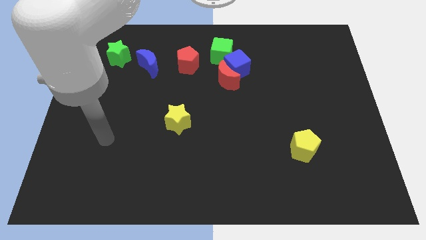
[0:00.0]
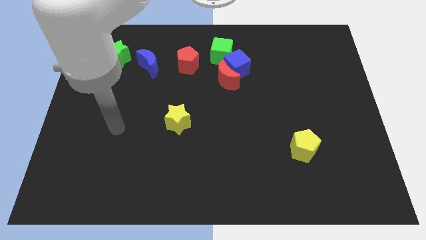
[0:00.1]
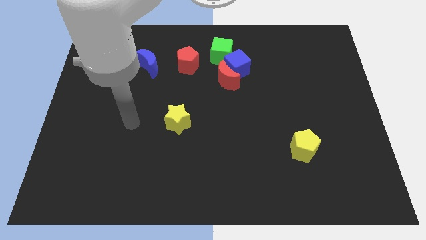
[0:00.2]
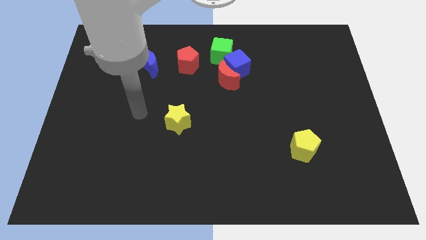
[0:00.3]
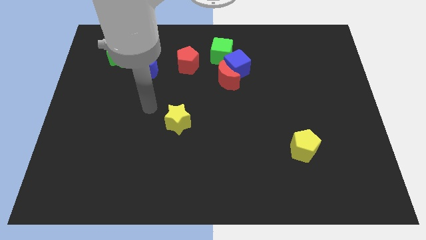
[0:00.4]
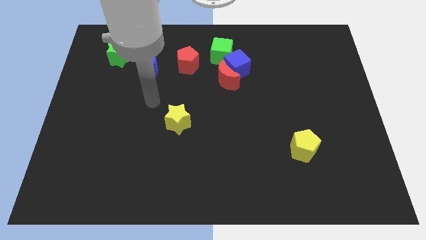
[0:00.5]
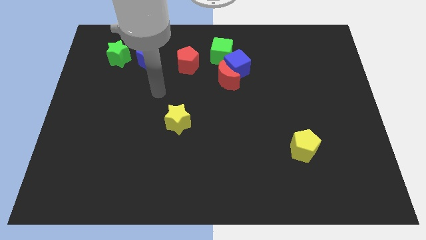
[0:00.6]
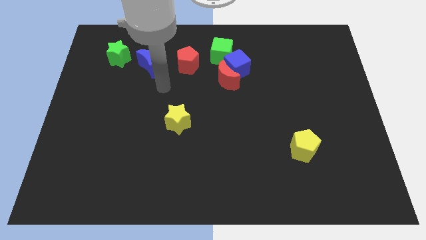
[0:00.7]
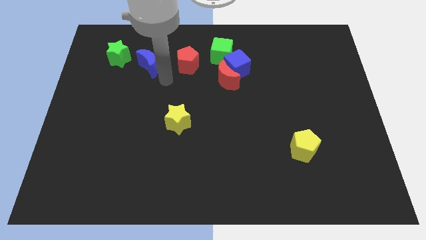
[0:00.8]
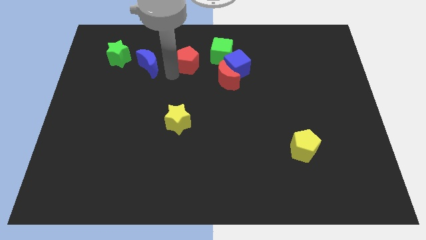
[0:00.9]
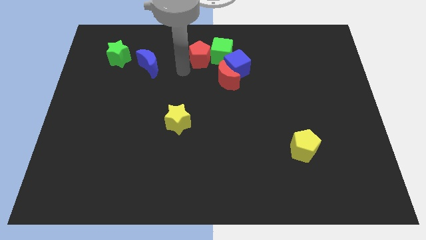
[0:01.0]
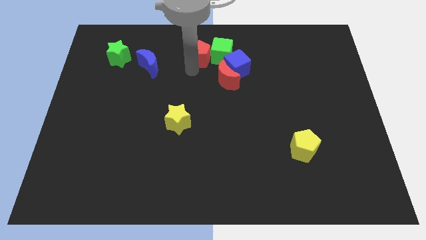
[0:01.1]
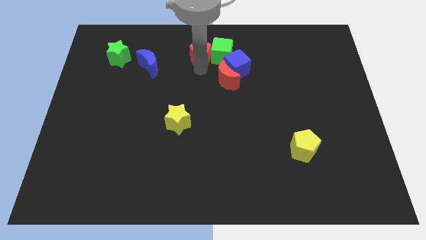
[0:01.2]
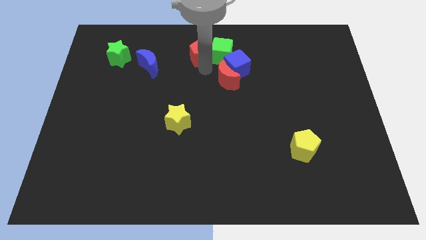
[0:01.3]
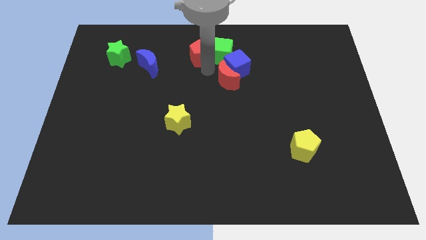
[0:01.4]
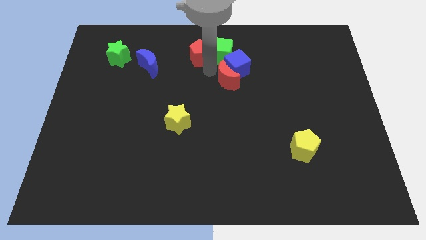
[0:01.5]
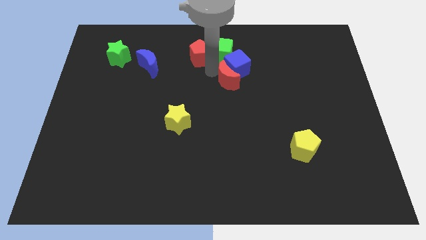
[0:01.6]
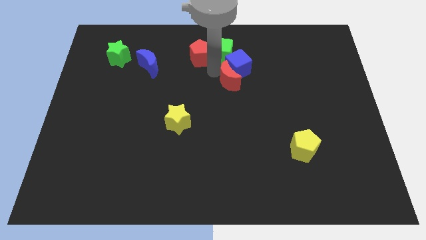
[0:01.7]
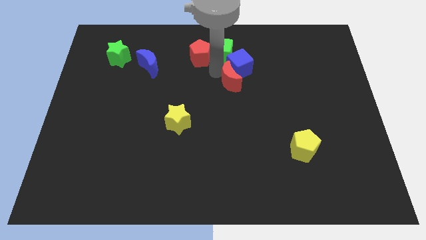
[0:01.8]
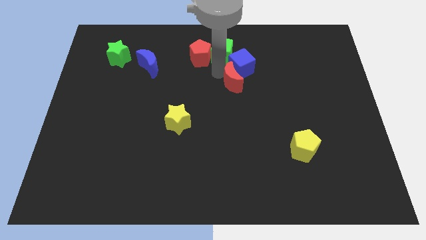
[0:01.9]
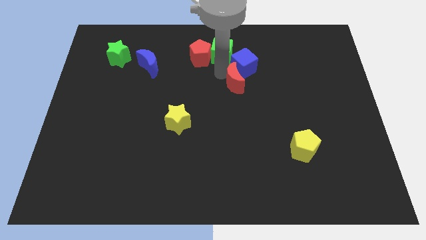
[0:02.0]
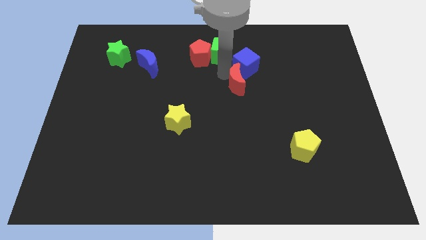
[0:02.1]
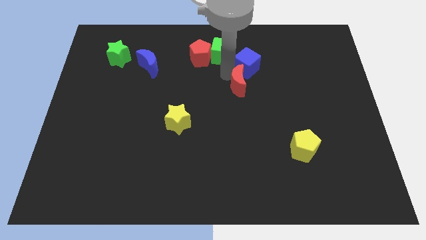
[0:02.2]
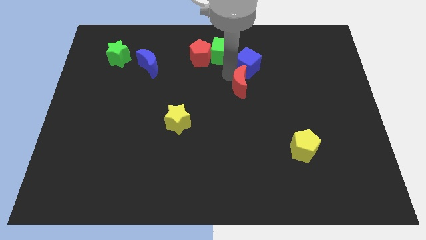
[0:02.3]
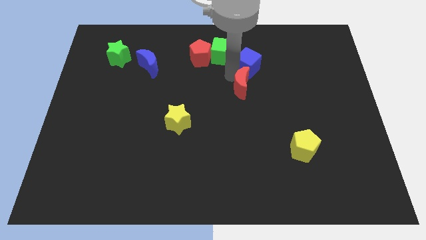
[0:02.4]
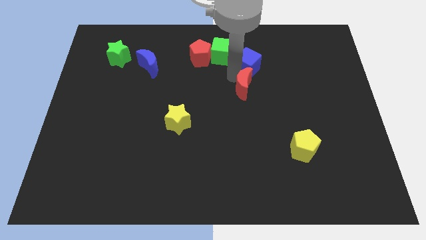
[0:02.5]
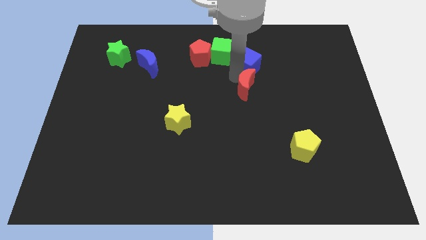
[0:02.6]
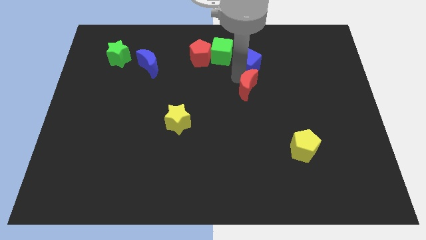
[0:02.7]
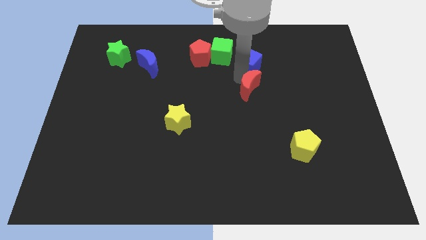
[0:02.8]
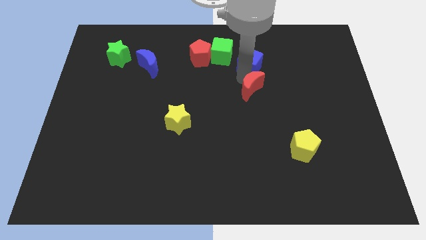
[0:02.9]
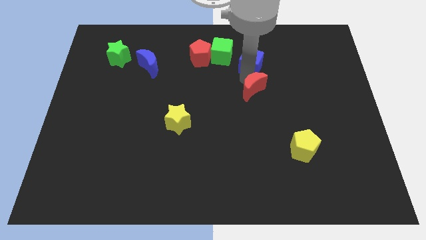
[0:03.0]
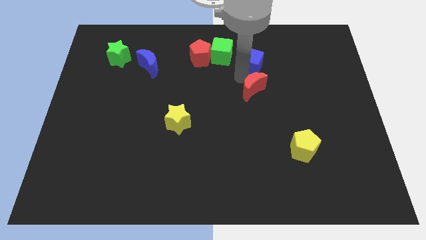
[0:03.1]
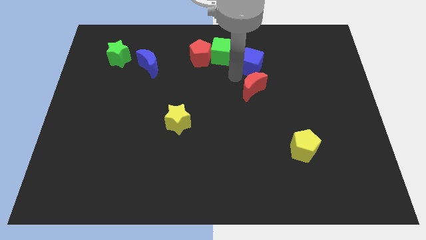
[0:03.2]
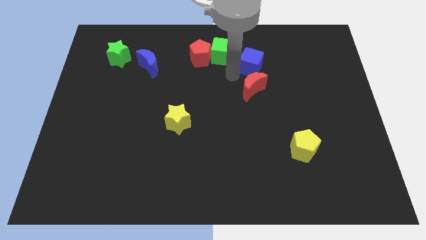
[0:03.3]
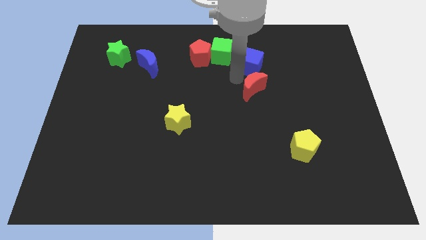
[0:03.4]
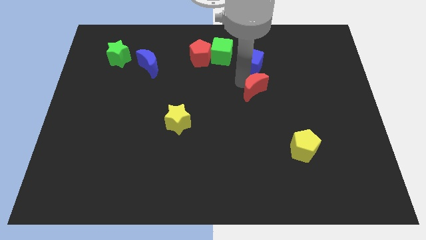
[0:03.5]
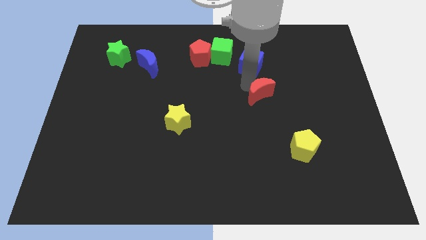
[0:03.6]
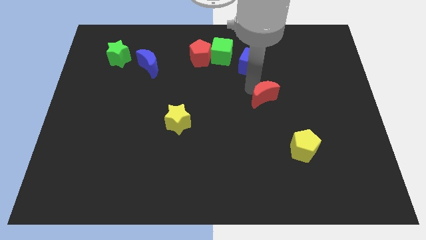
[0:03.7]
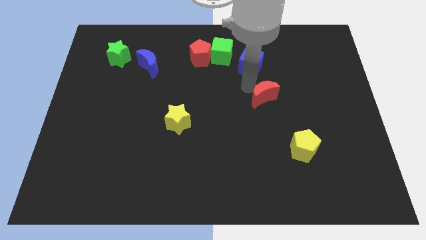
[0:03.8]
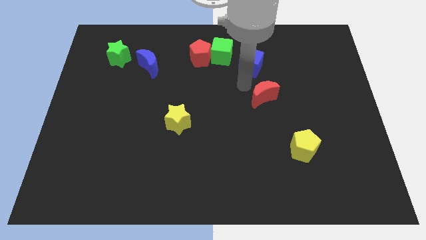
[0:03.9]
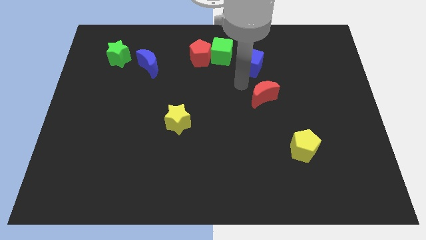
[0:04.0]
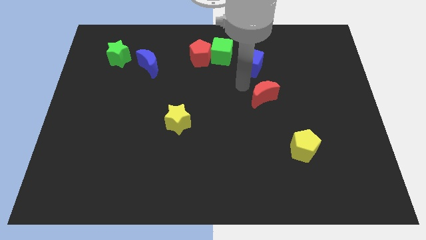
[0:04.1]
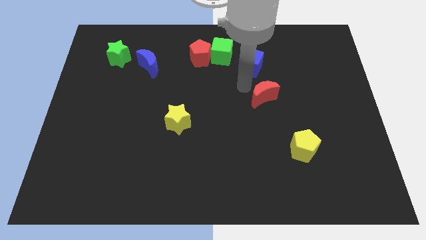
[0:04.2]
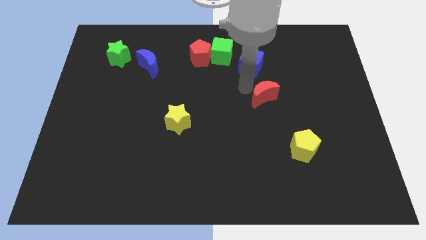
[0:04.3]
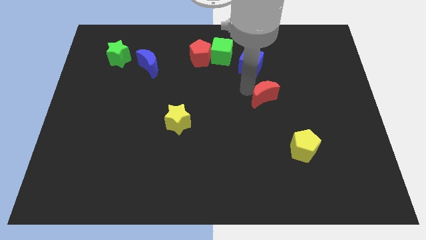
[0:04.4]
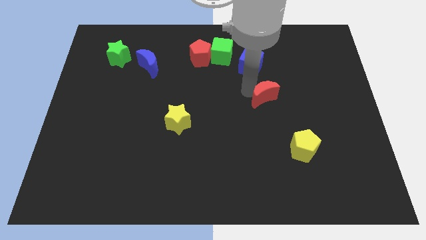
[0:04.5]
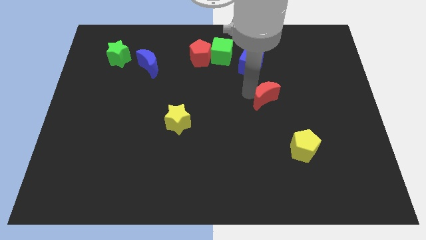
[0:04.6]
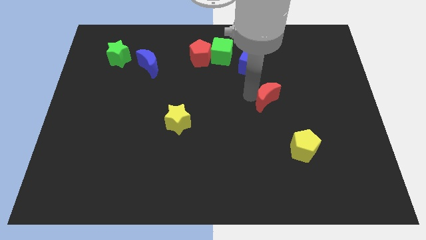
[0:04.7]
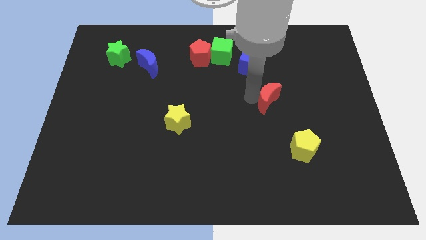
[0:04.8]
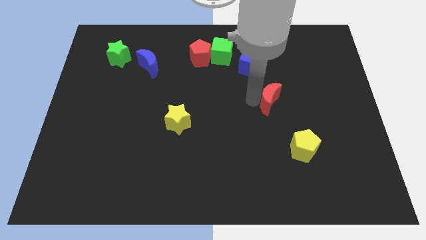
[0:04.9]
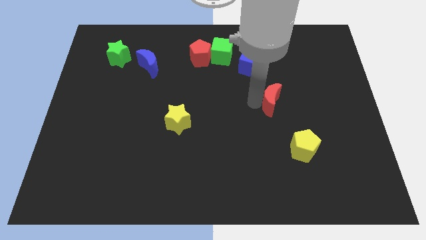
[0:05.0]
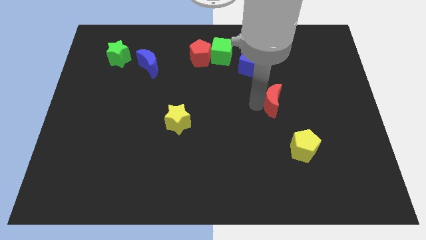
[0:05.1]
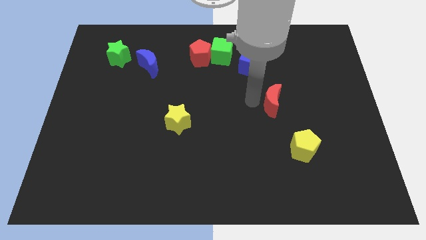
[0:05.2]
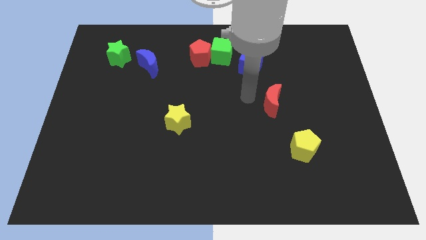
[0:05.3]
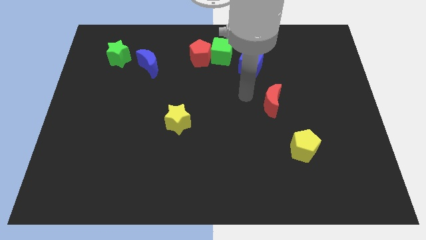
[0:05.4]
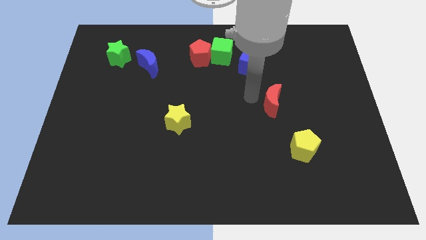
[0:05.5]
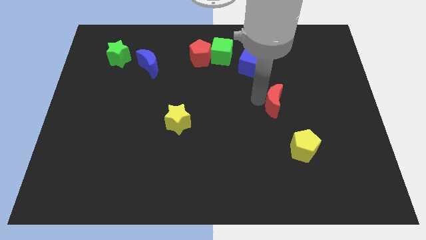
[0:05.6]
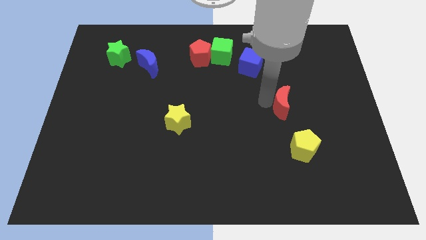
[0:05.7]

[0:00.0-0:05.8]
move the red moon to the top side of the yellow pentagon

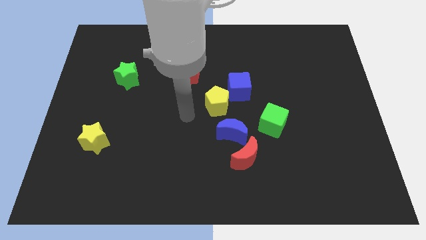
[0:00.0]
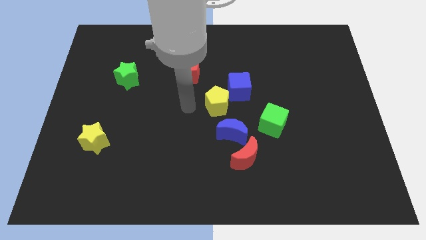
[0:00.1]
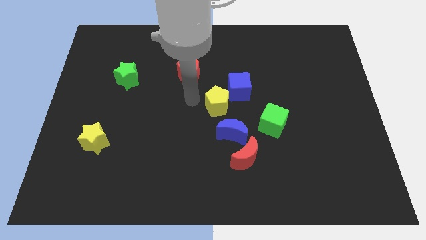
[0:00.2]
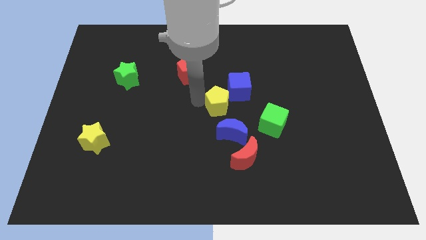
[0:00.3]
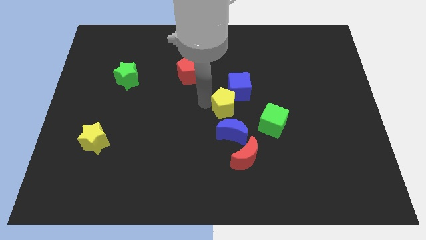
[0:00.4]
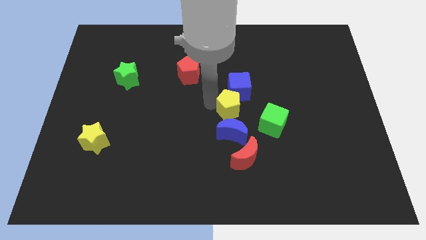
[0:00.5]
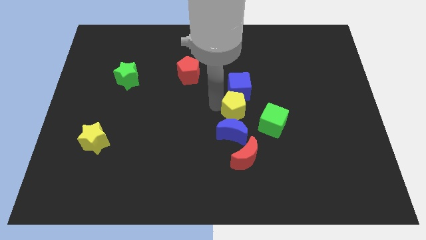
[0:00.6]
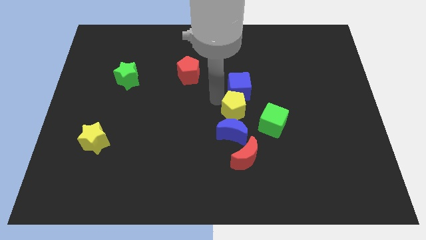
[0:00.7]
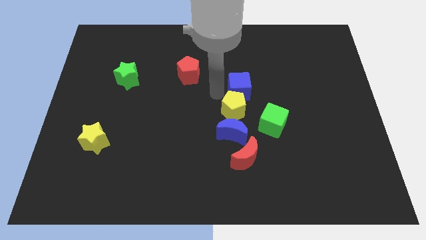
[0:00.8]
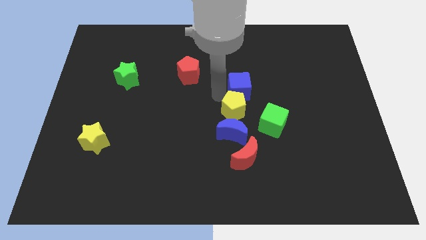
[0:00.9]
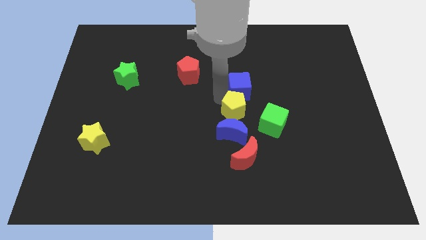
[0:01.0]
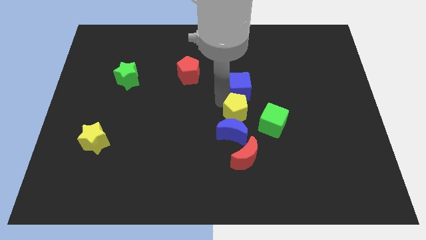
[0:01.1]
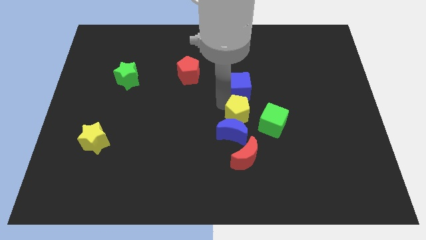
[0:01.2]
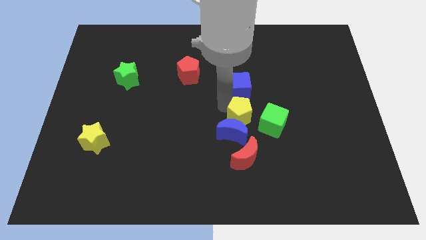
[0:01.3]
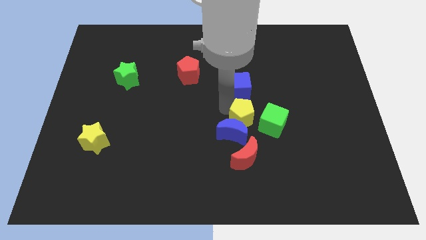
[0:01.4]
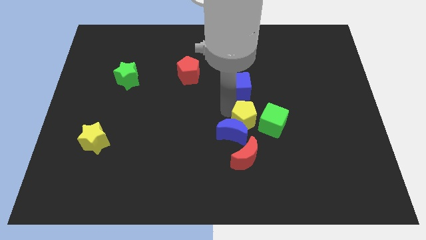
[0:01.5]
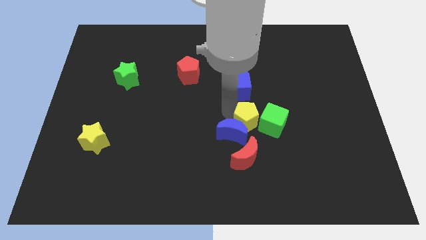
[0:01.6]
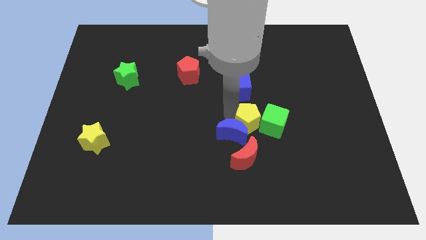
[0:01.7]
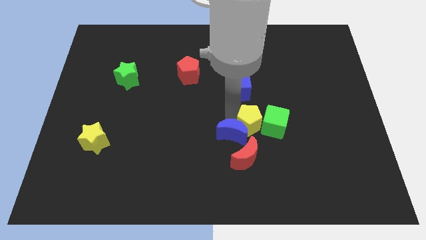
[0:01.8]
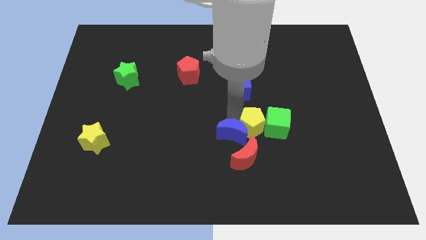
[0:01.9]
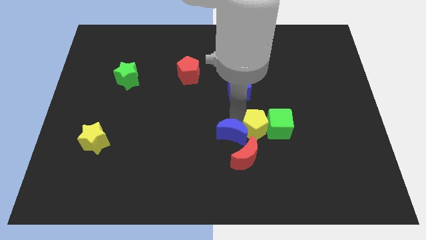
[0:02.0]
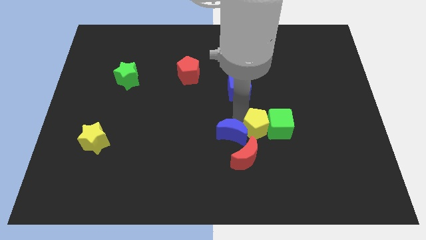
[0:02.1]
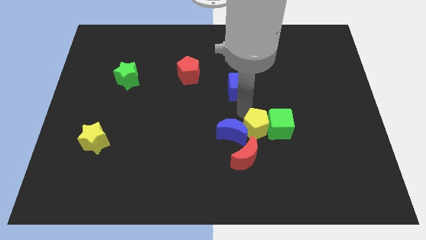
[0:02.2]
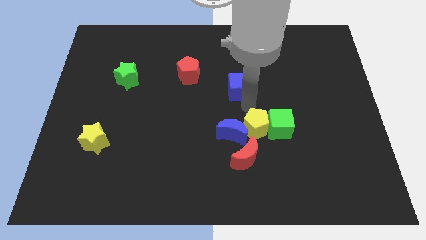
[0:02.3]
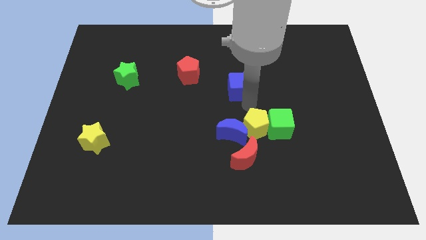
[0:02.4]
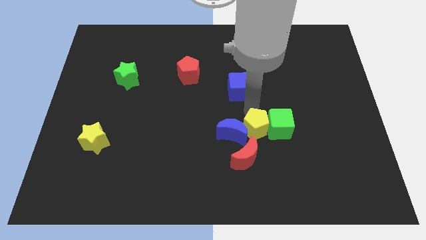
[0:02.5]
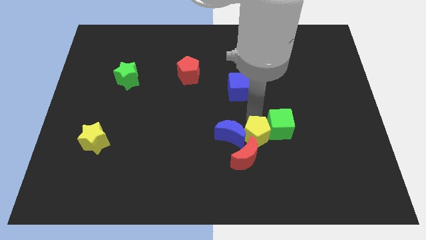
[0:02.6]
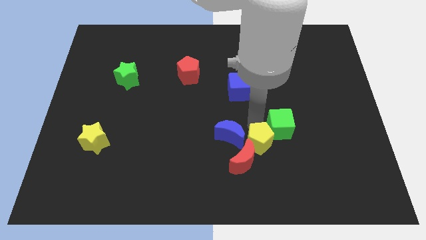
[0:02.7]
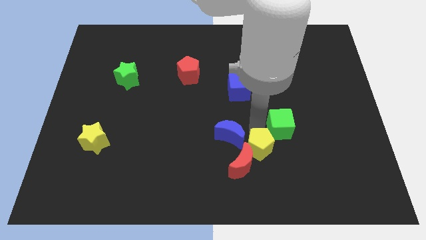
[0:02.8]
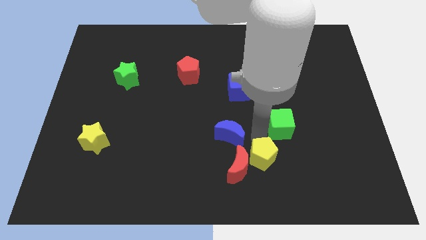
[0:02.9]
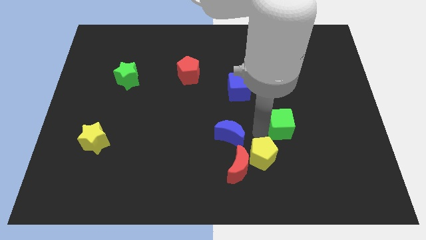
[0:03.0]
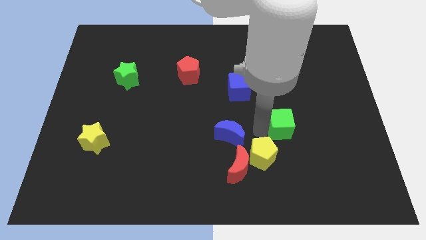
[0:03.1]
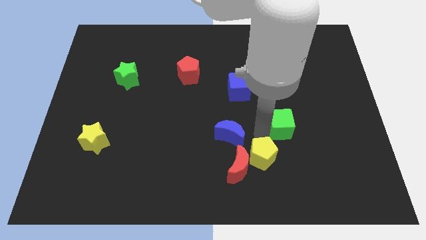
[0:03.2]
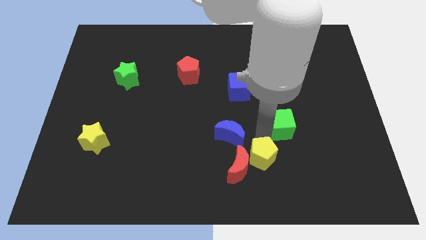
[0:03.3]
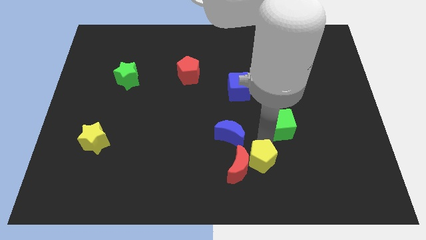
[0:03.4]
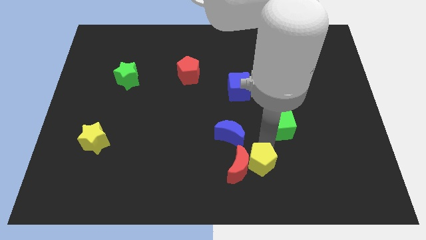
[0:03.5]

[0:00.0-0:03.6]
move the yellow pentagon to the bottom right side of the red moon
